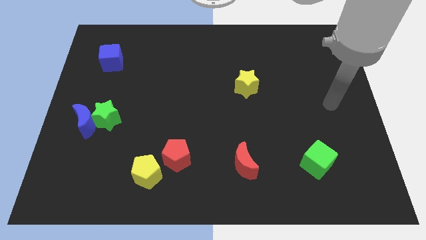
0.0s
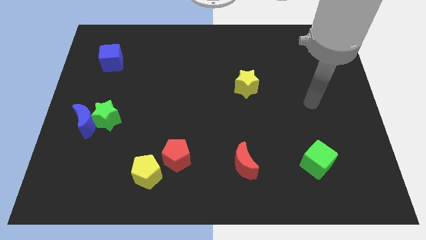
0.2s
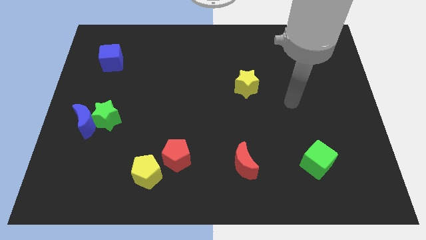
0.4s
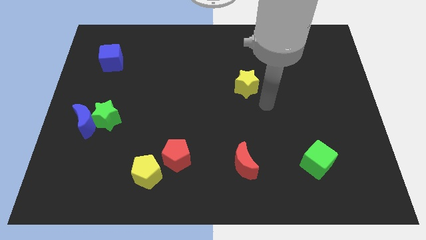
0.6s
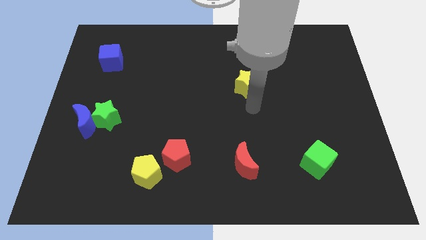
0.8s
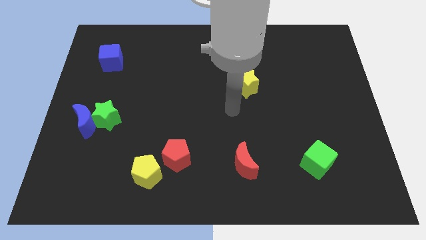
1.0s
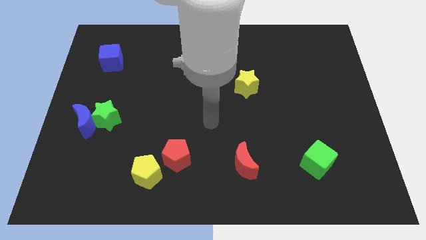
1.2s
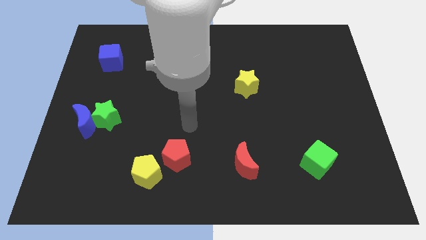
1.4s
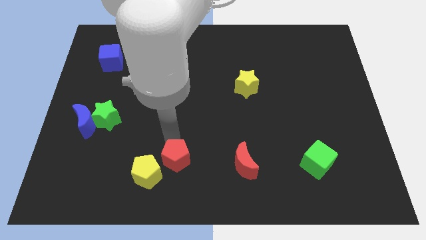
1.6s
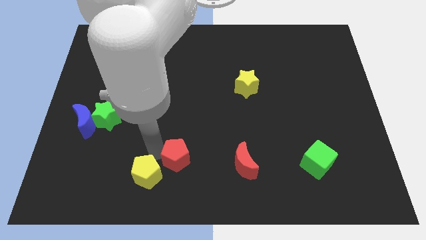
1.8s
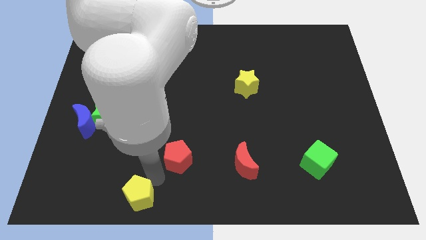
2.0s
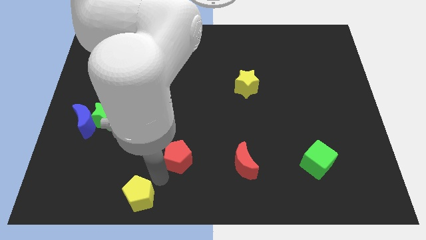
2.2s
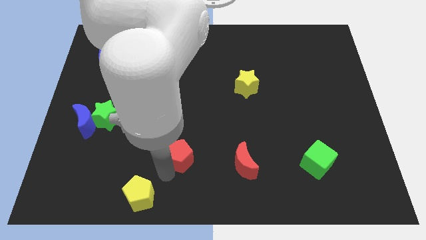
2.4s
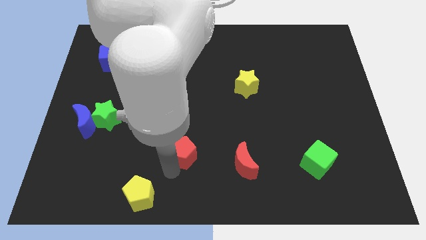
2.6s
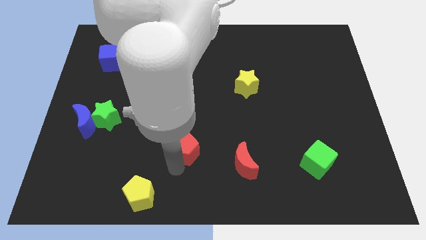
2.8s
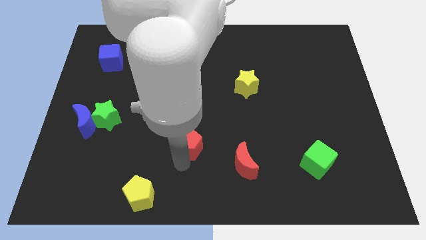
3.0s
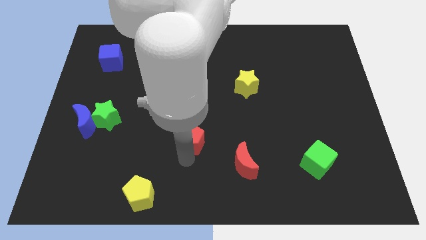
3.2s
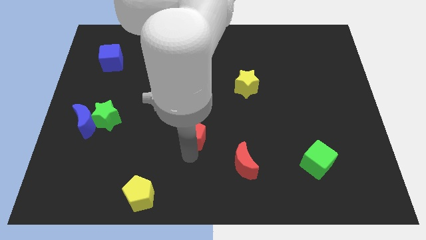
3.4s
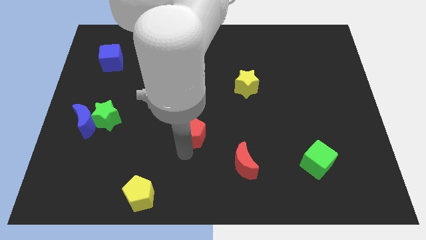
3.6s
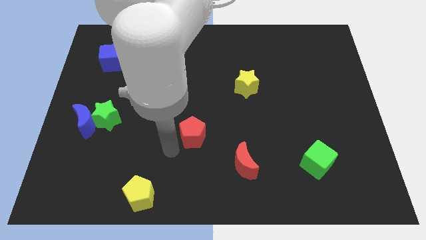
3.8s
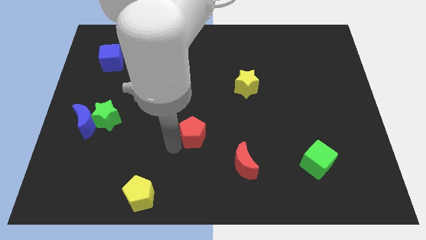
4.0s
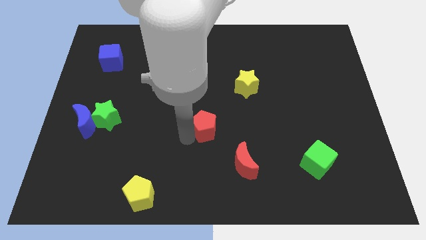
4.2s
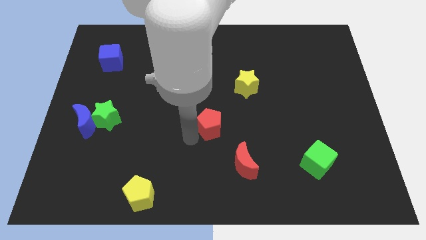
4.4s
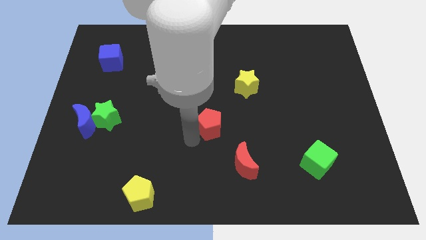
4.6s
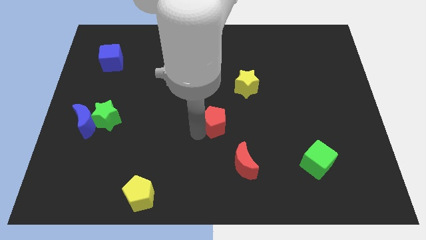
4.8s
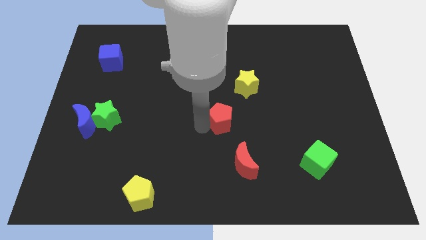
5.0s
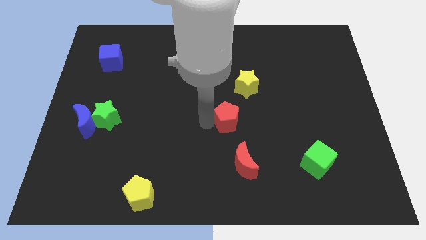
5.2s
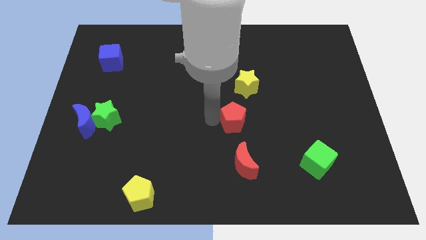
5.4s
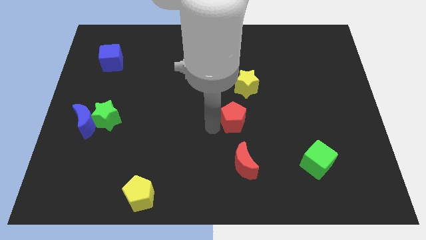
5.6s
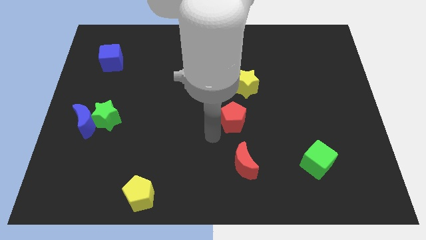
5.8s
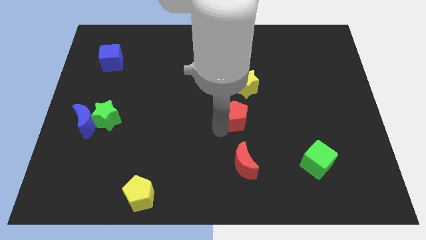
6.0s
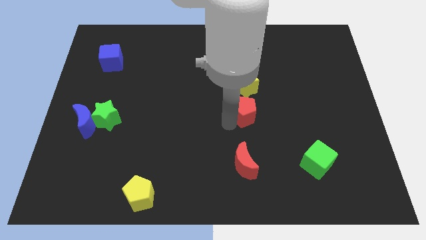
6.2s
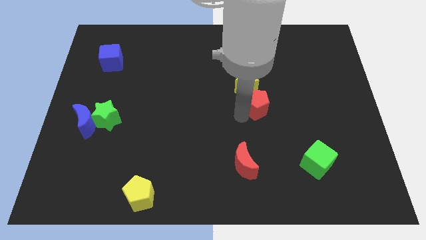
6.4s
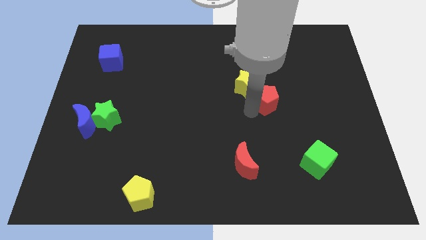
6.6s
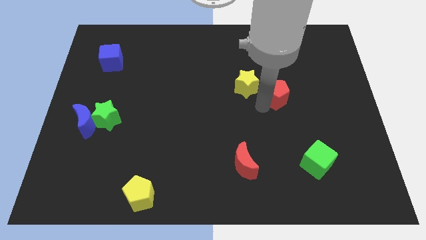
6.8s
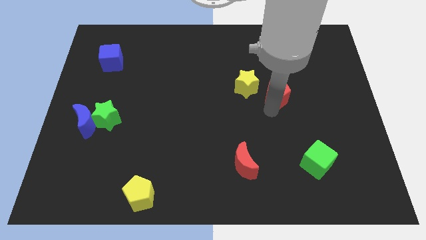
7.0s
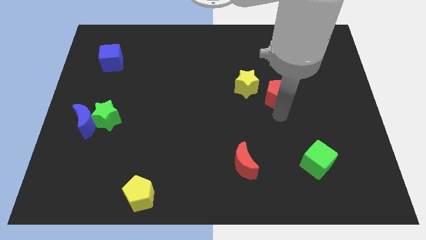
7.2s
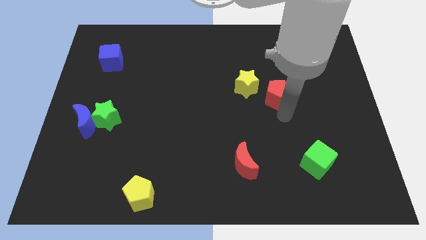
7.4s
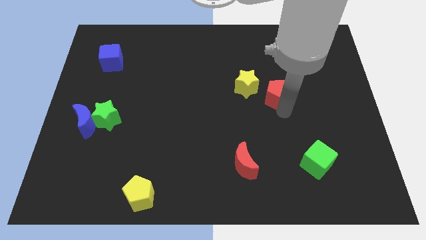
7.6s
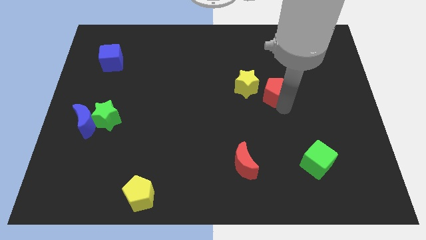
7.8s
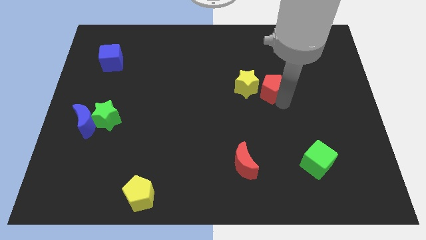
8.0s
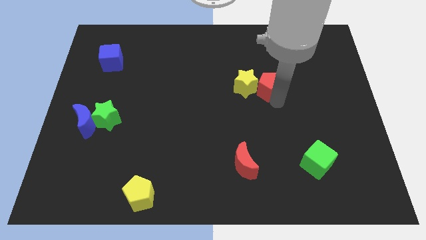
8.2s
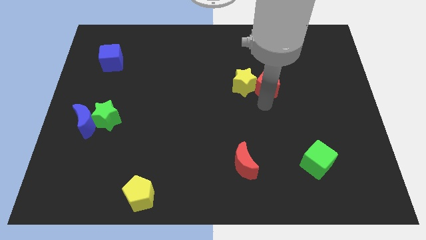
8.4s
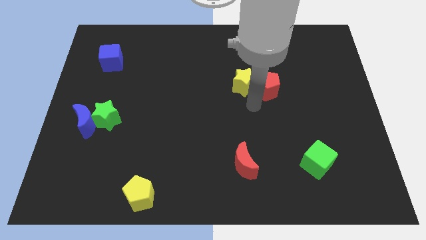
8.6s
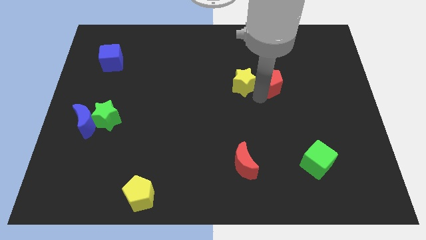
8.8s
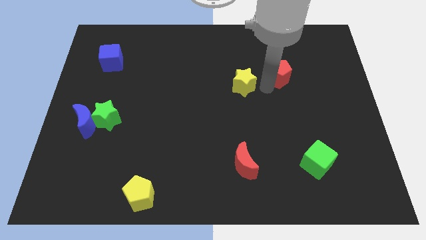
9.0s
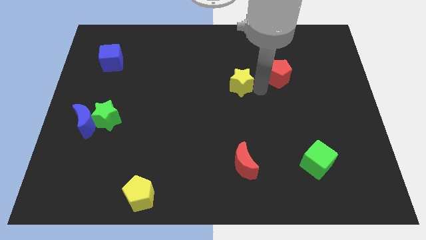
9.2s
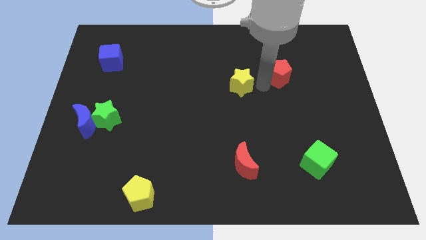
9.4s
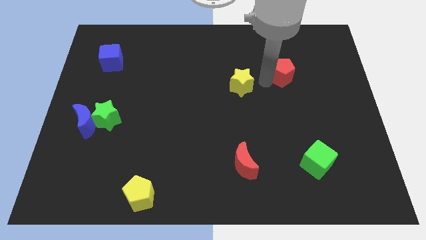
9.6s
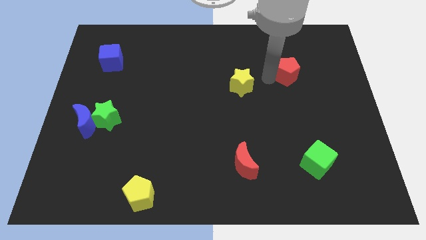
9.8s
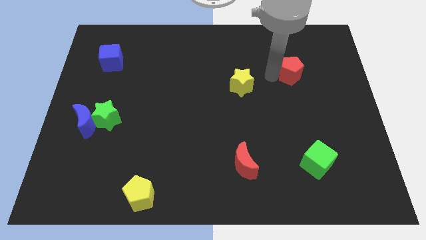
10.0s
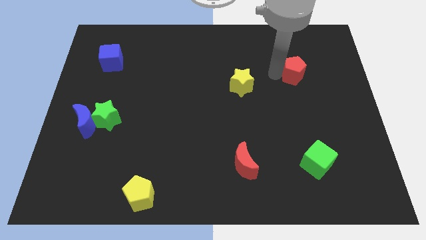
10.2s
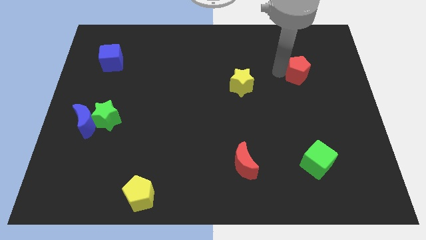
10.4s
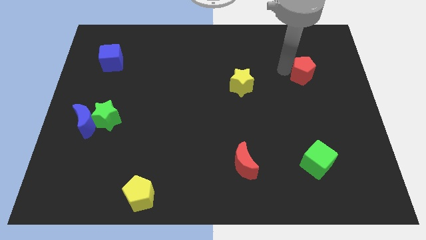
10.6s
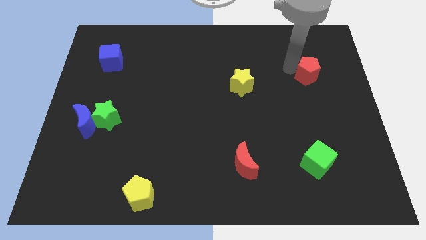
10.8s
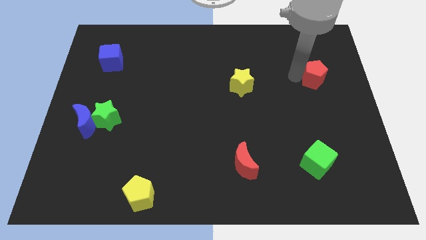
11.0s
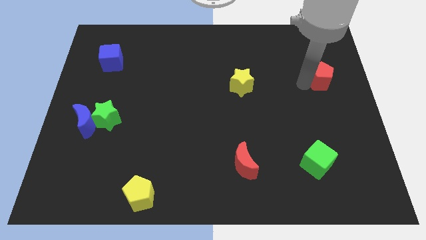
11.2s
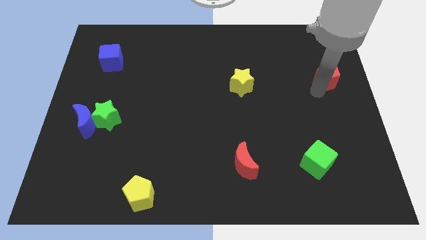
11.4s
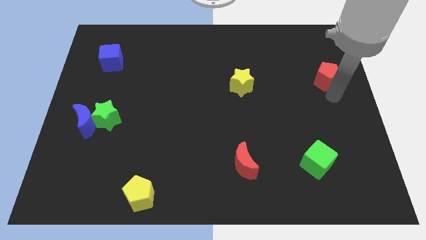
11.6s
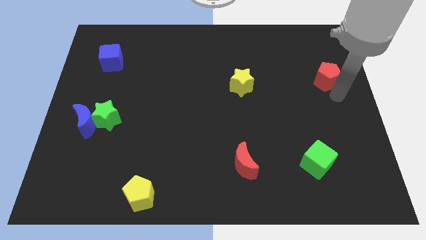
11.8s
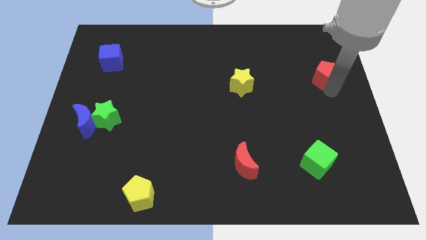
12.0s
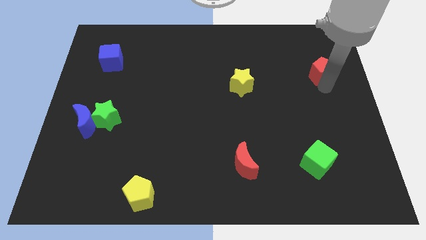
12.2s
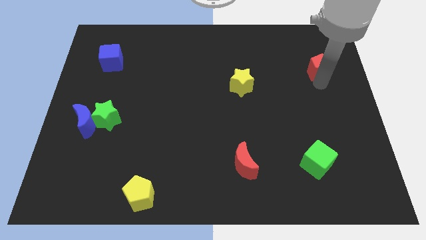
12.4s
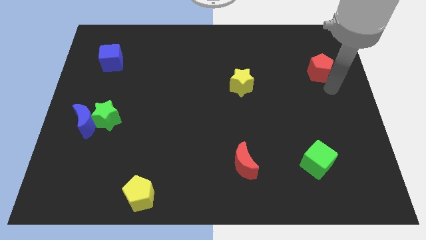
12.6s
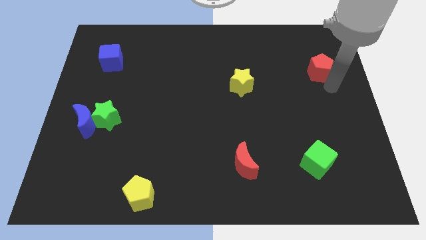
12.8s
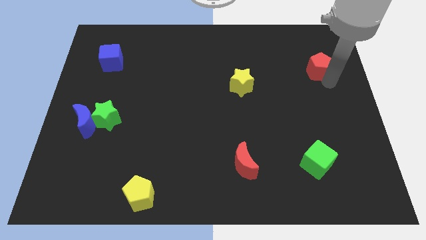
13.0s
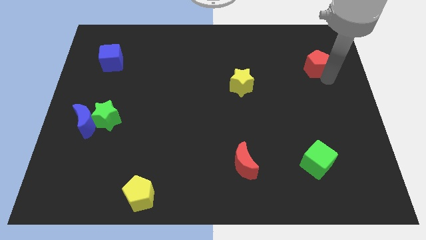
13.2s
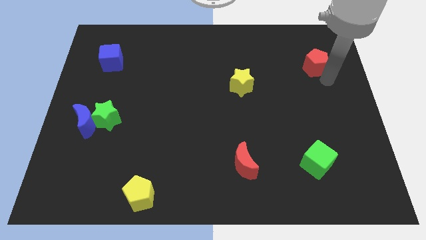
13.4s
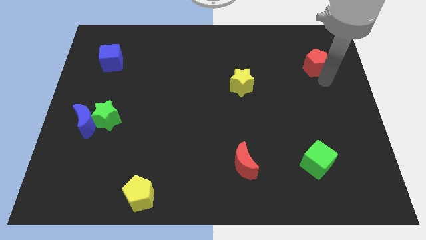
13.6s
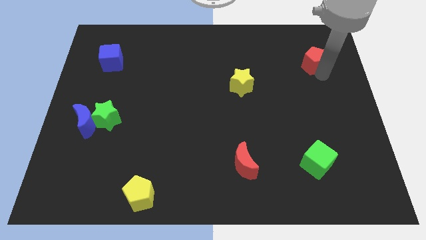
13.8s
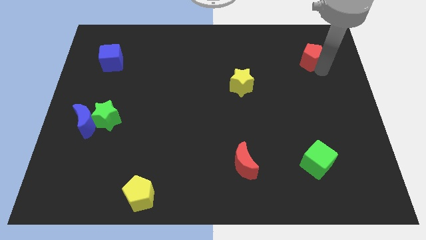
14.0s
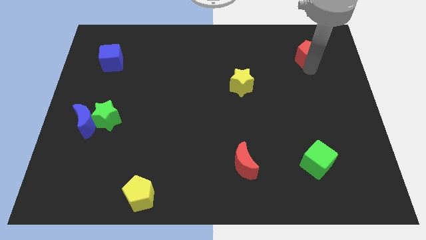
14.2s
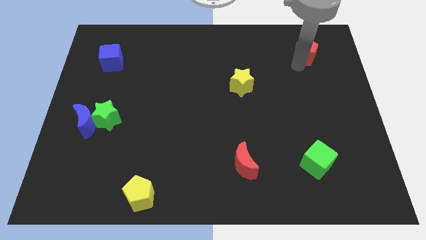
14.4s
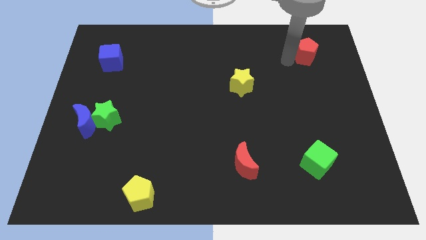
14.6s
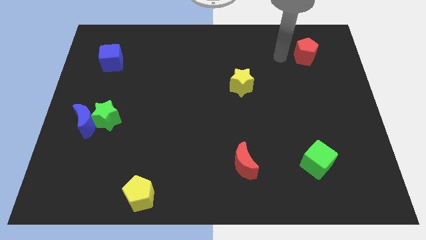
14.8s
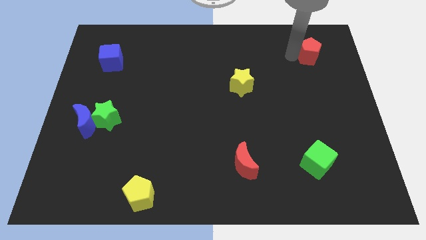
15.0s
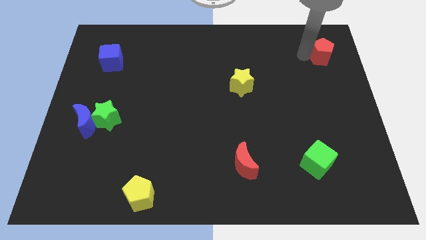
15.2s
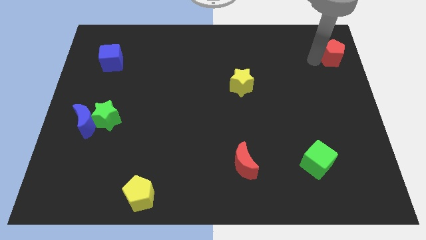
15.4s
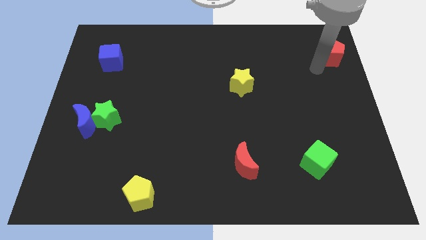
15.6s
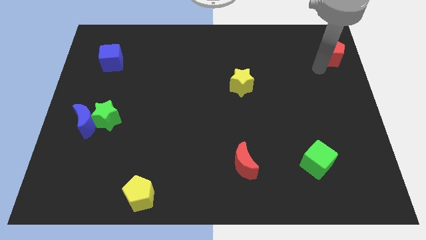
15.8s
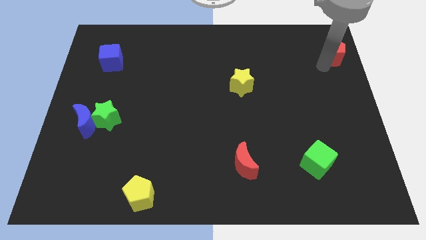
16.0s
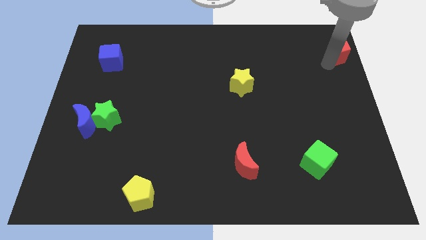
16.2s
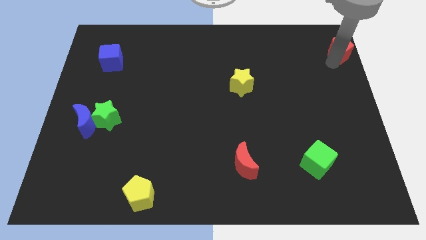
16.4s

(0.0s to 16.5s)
push the red pentagon to the top right
